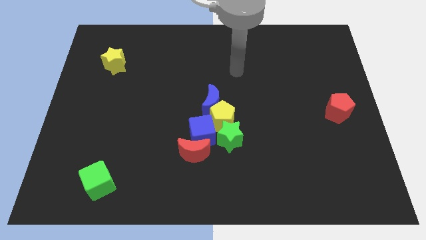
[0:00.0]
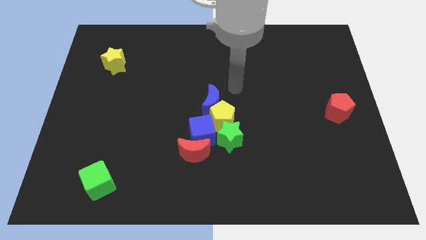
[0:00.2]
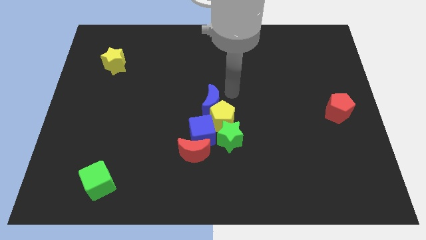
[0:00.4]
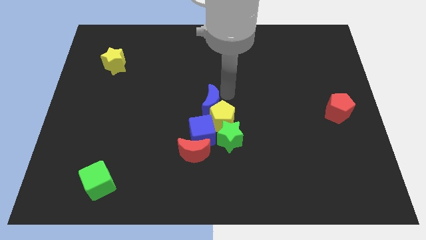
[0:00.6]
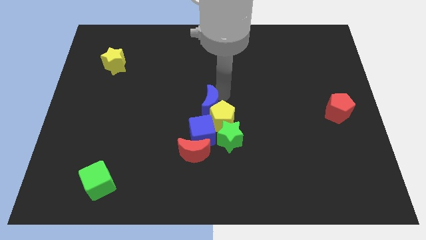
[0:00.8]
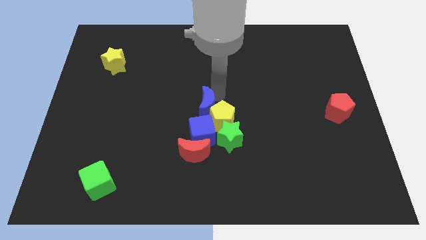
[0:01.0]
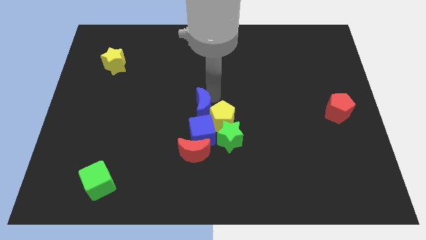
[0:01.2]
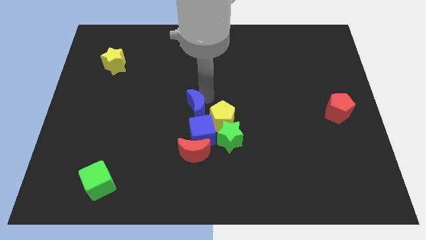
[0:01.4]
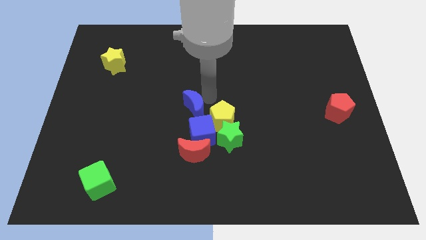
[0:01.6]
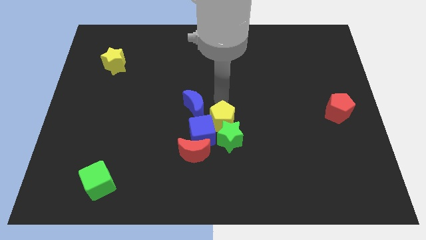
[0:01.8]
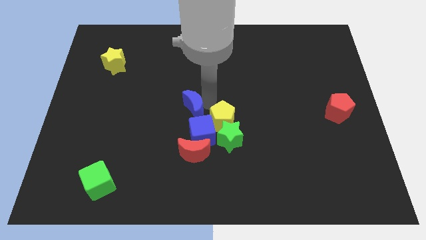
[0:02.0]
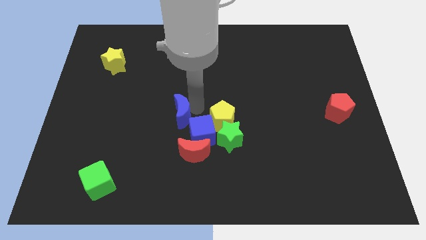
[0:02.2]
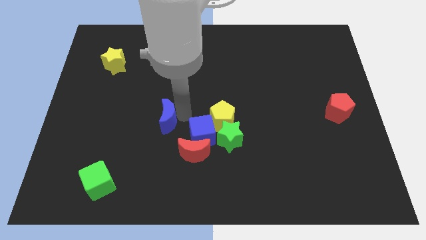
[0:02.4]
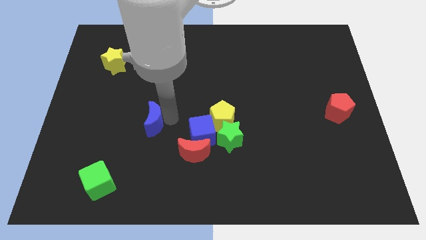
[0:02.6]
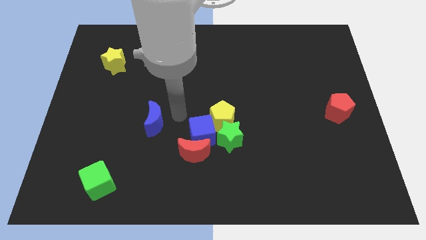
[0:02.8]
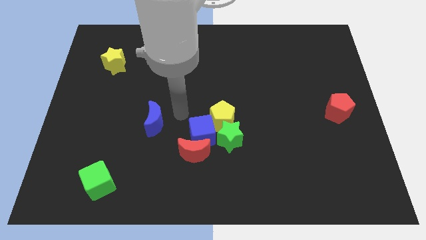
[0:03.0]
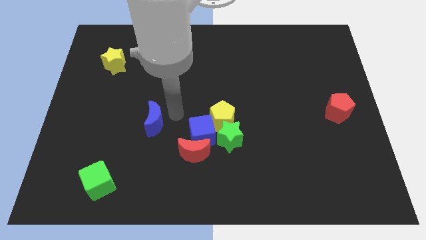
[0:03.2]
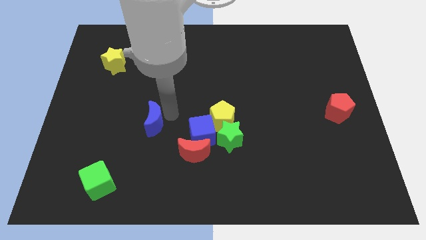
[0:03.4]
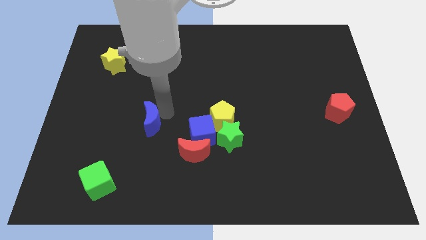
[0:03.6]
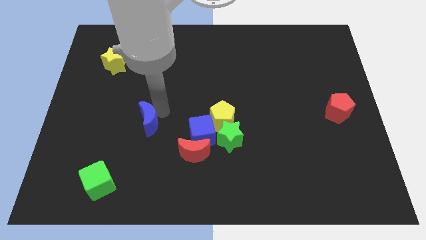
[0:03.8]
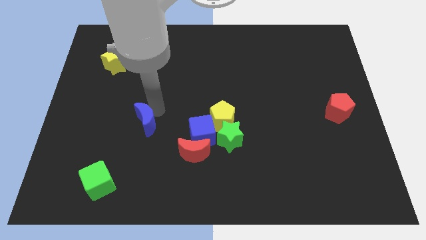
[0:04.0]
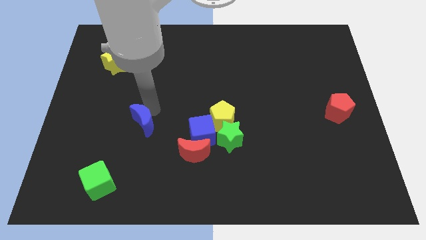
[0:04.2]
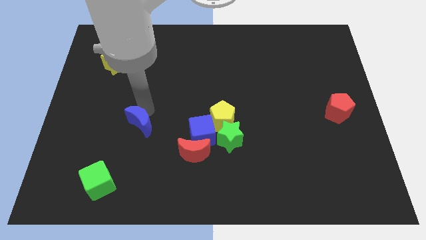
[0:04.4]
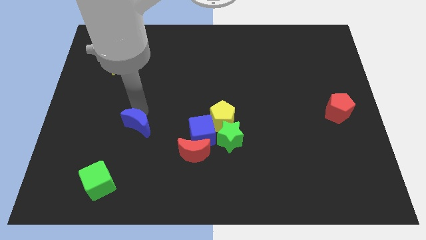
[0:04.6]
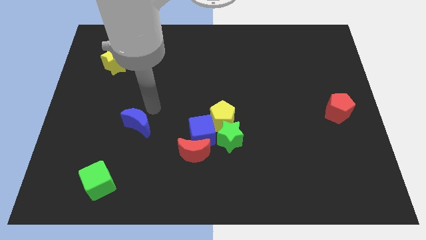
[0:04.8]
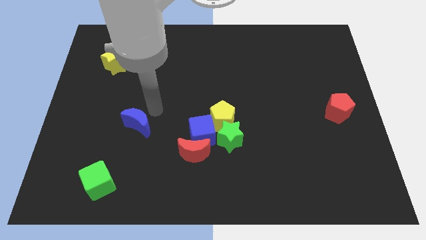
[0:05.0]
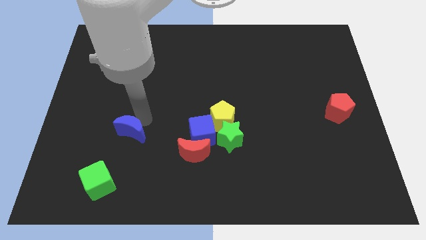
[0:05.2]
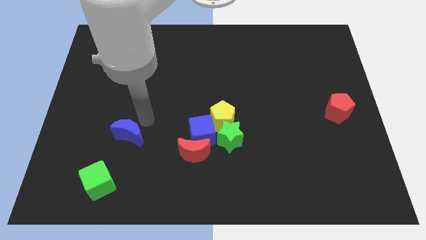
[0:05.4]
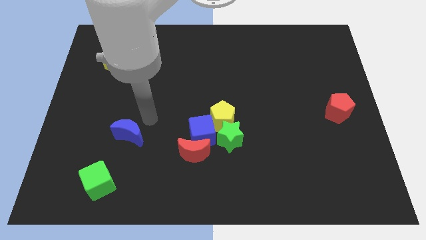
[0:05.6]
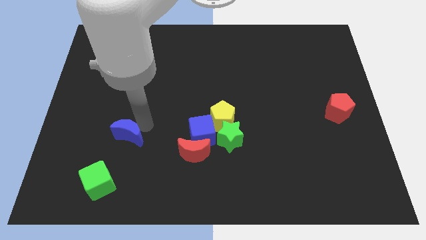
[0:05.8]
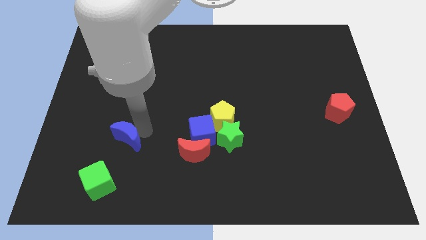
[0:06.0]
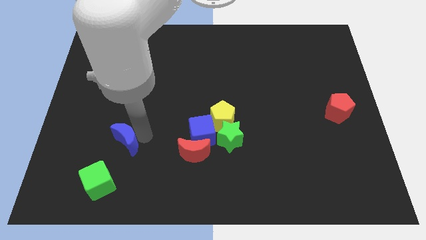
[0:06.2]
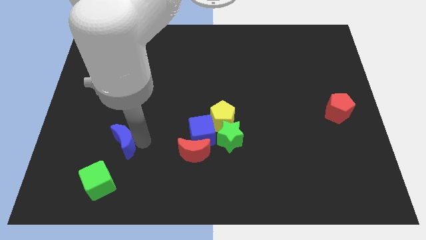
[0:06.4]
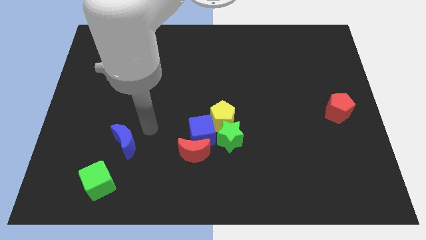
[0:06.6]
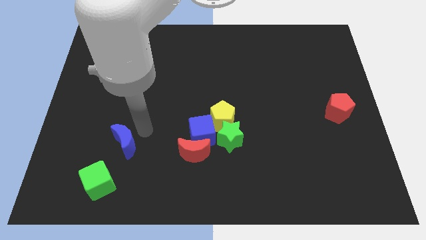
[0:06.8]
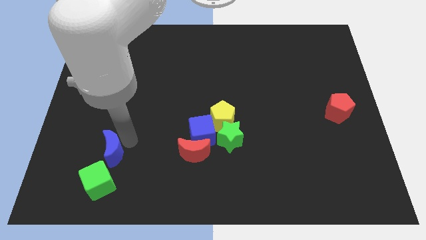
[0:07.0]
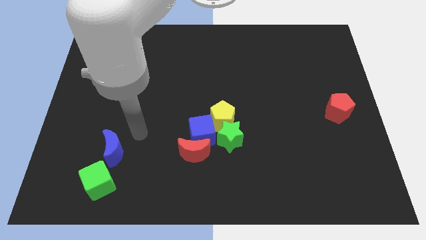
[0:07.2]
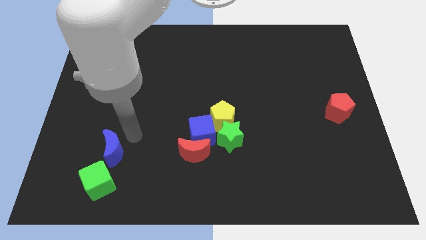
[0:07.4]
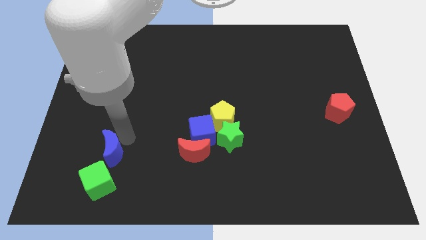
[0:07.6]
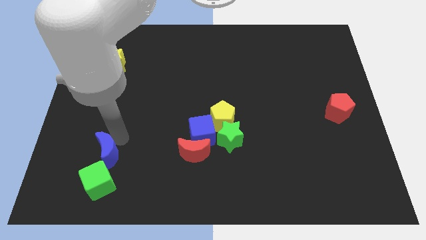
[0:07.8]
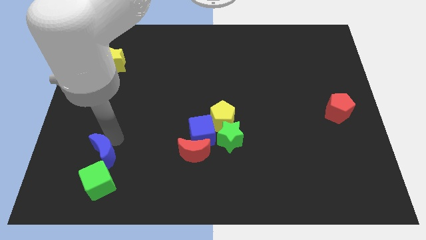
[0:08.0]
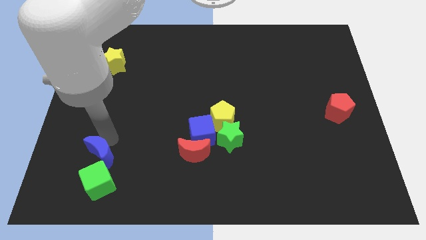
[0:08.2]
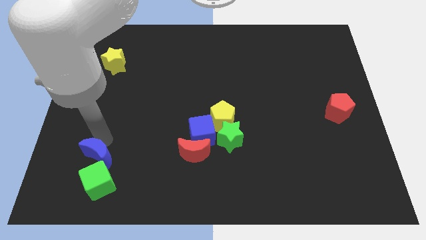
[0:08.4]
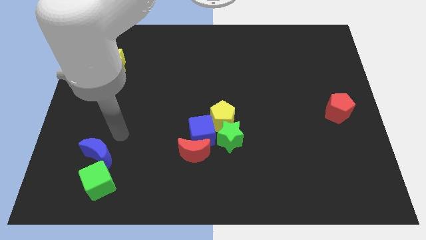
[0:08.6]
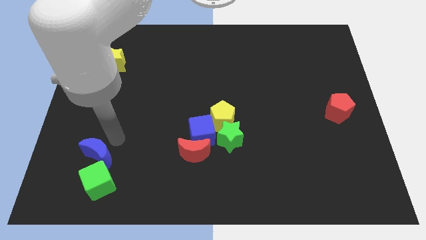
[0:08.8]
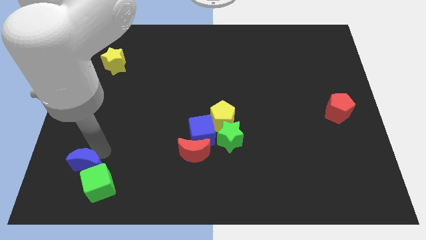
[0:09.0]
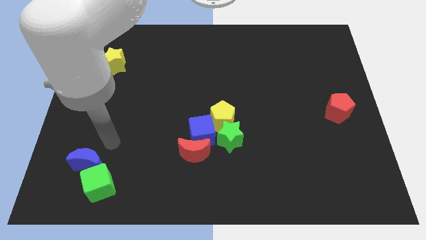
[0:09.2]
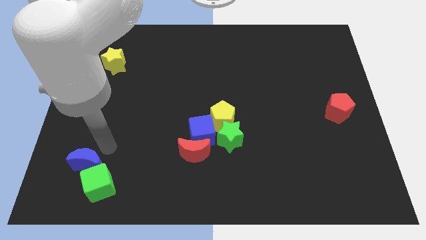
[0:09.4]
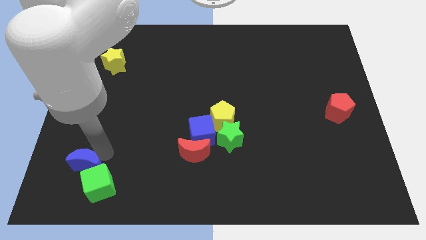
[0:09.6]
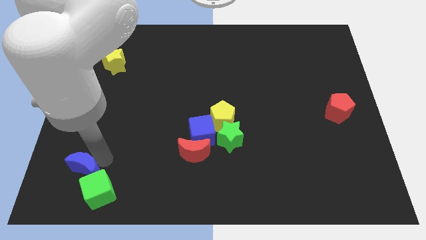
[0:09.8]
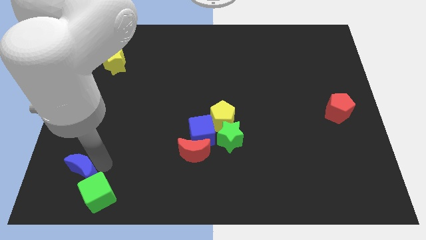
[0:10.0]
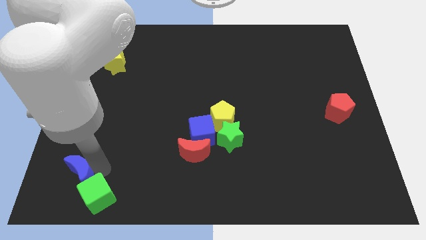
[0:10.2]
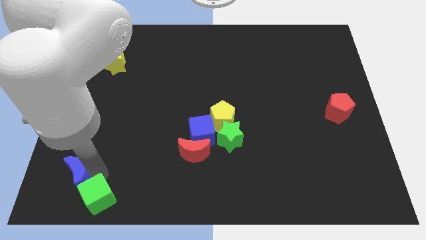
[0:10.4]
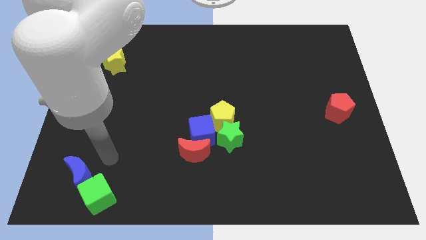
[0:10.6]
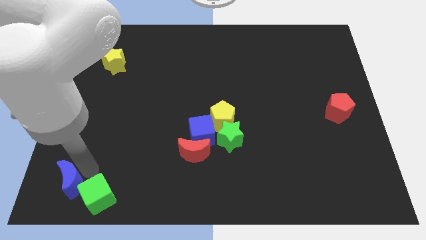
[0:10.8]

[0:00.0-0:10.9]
move the blue moon to the lower left corner
